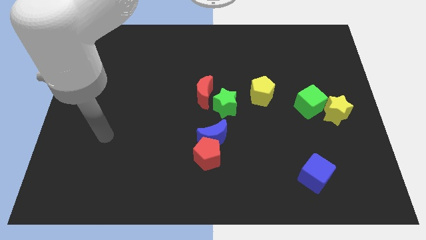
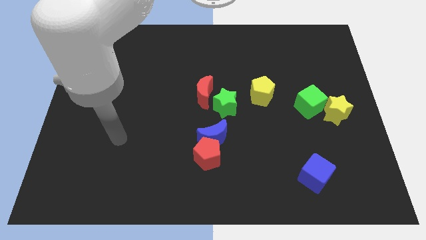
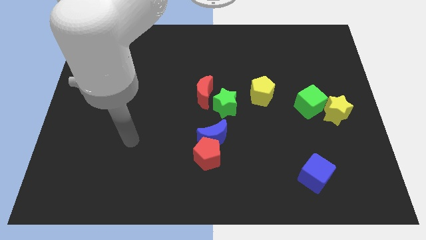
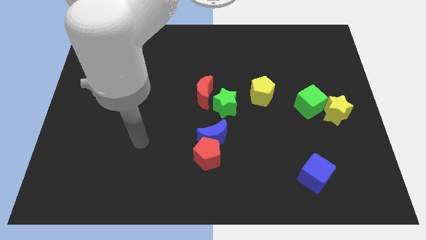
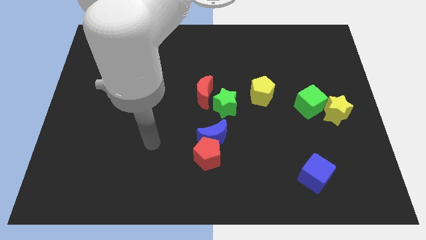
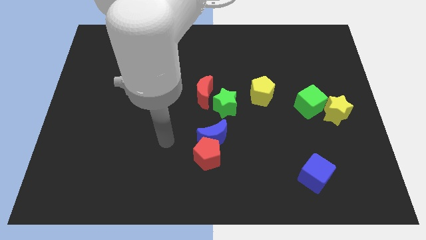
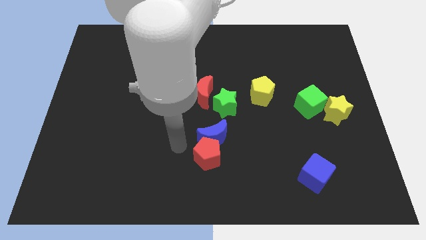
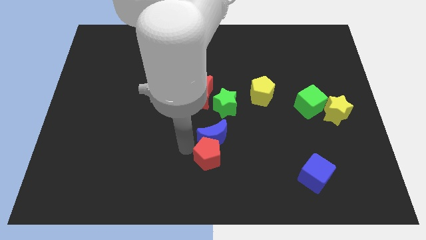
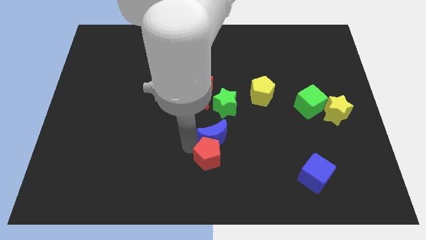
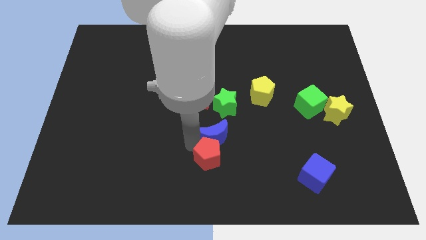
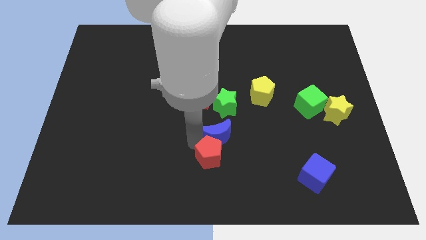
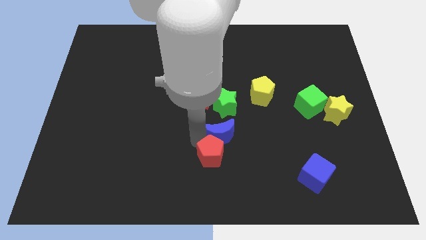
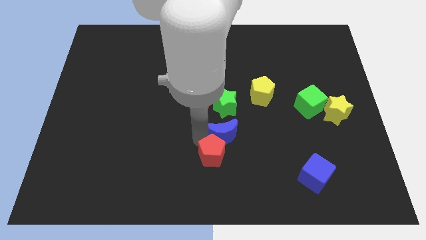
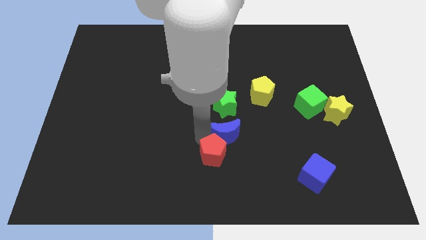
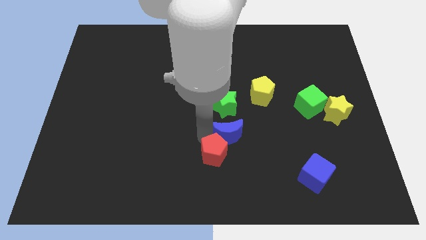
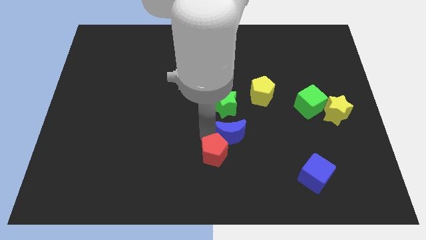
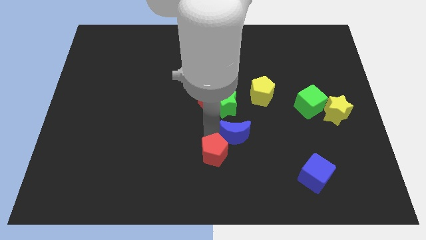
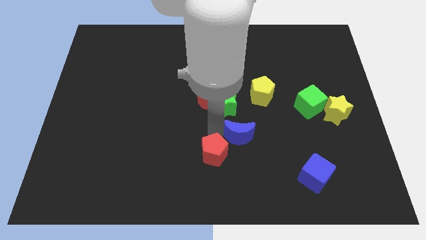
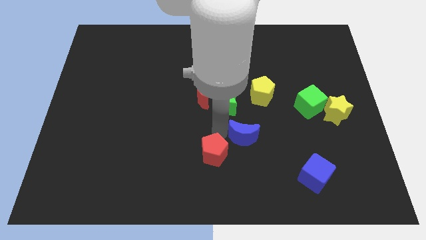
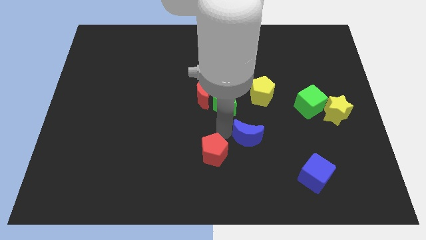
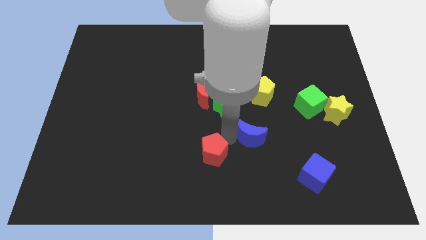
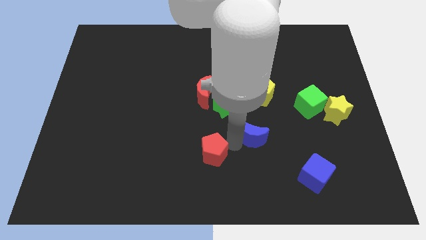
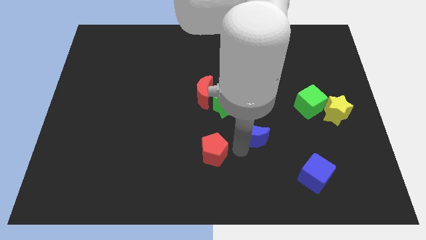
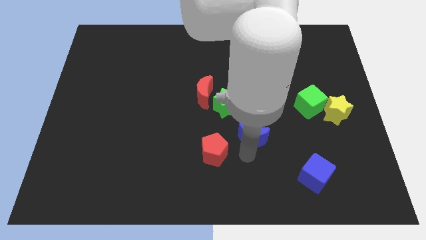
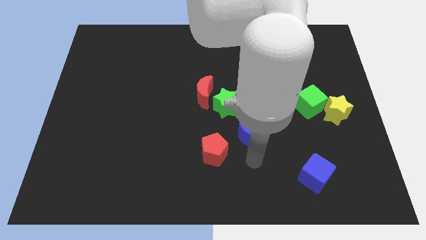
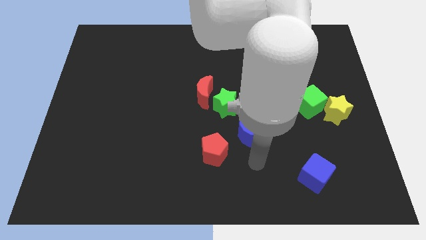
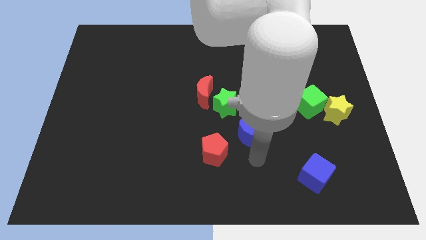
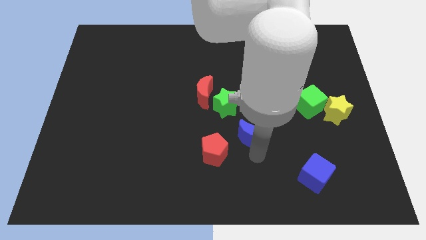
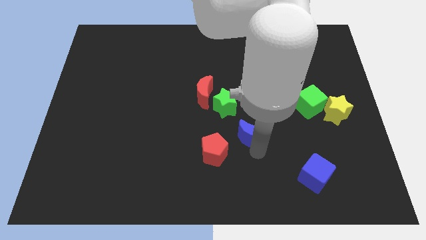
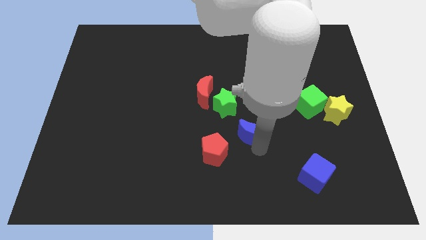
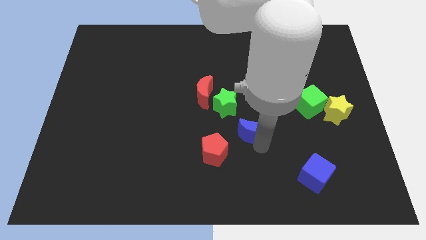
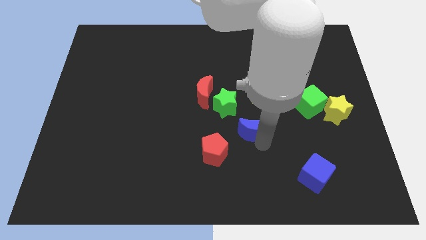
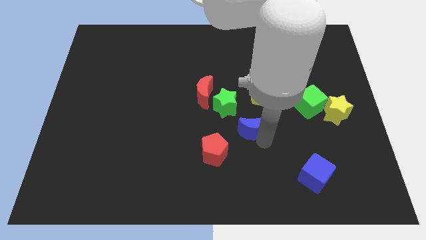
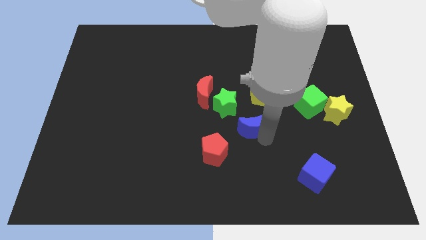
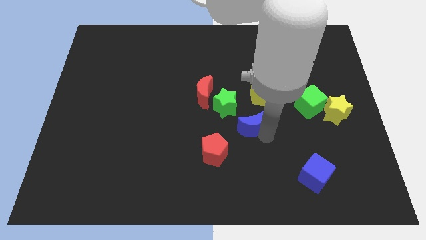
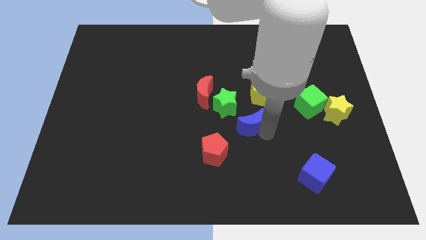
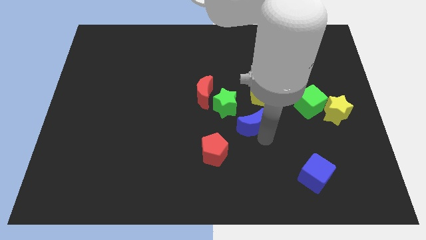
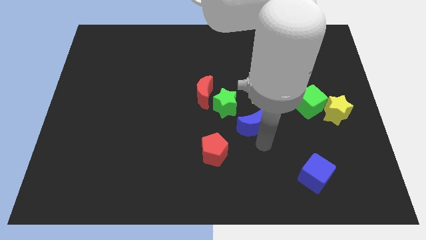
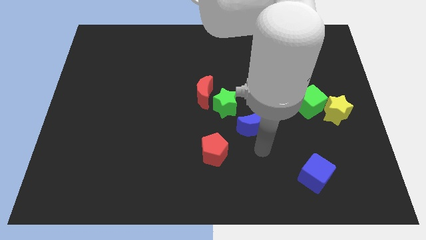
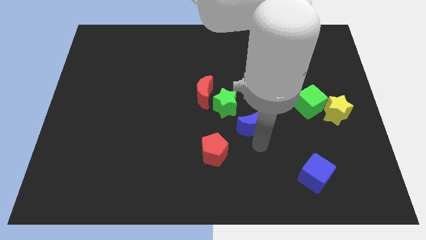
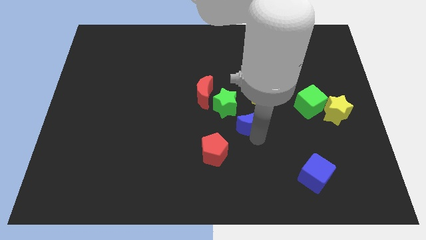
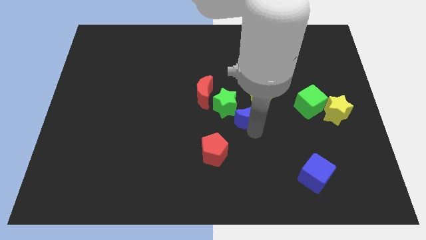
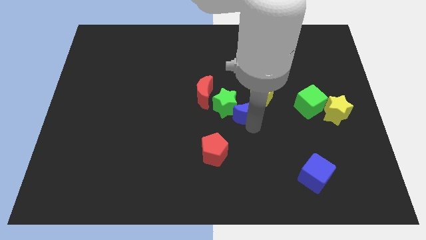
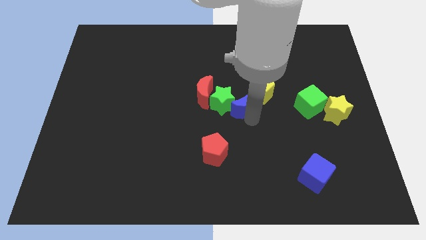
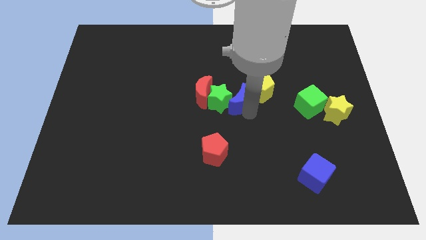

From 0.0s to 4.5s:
slide the blue moon up slightly

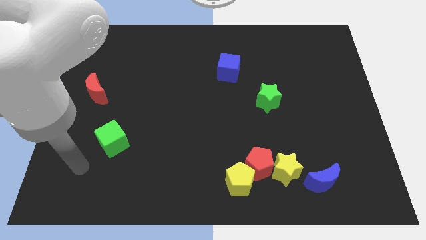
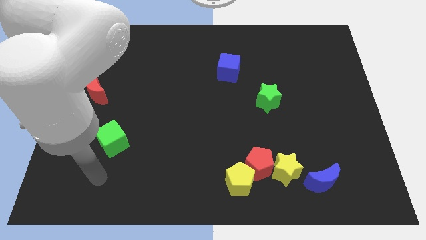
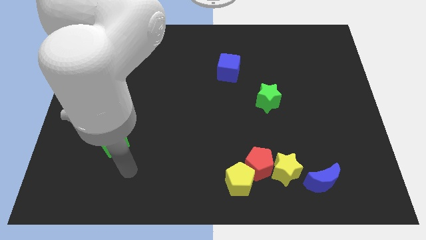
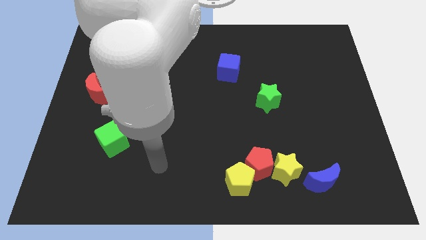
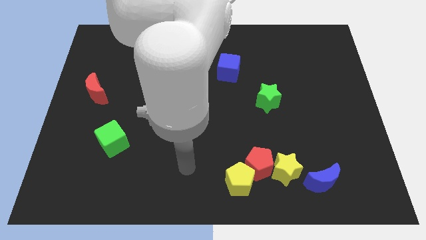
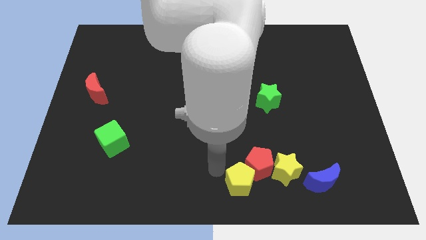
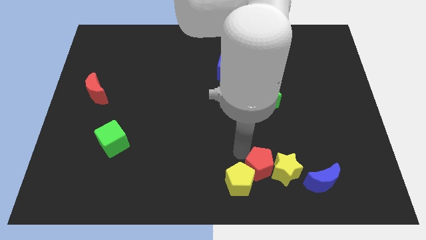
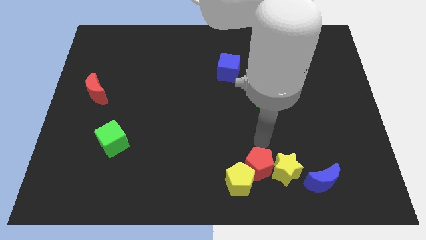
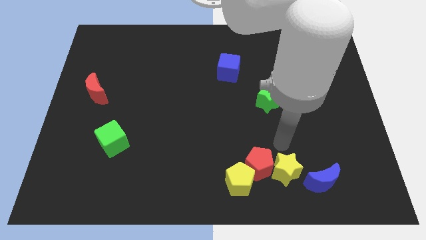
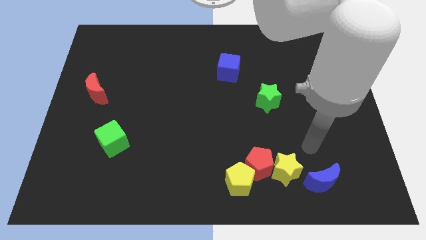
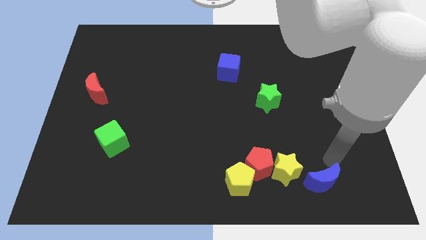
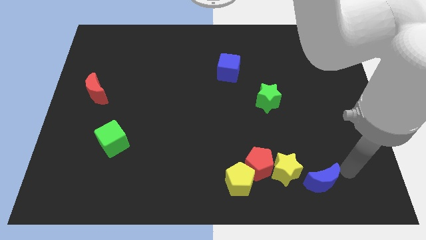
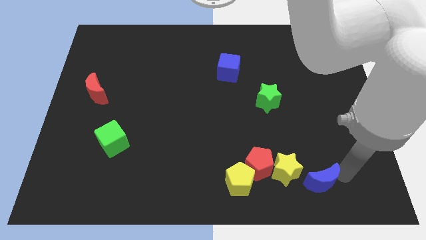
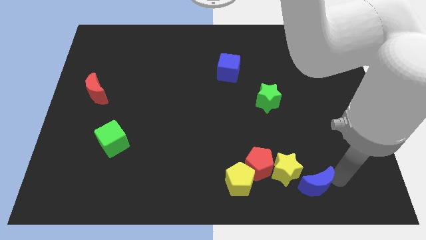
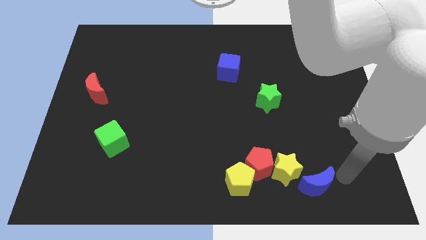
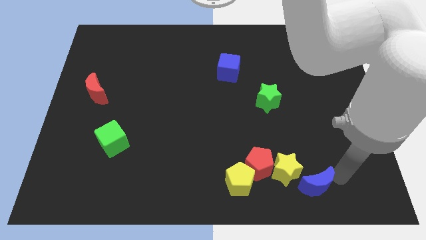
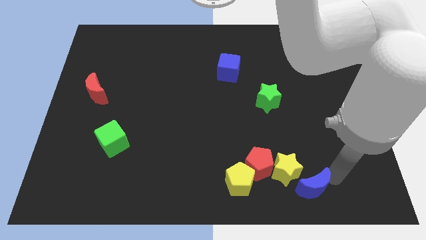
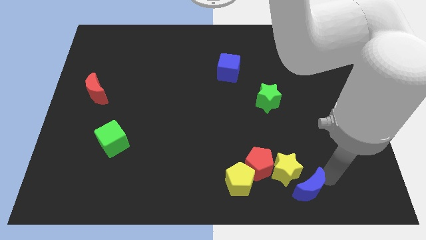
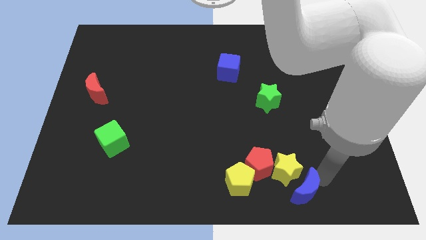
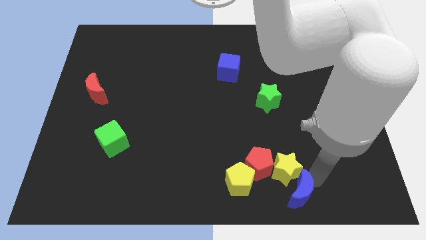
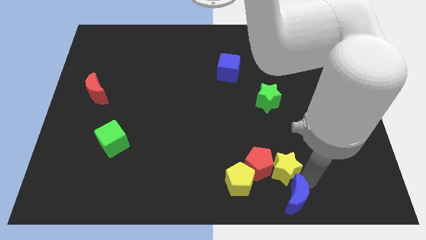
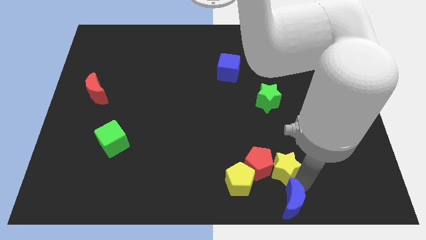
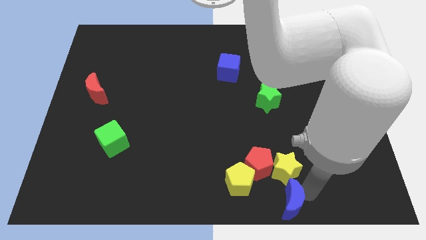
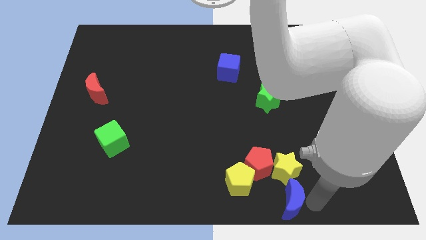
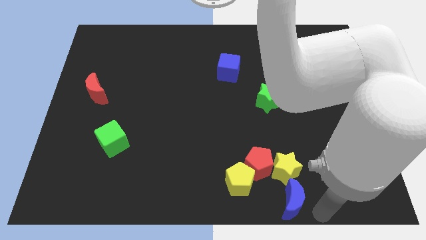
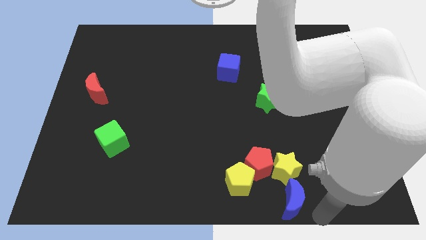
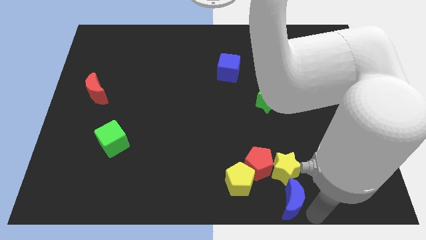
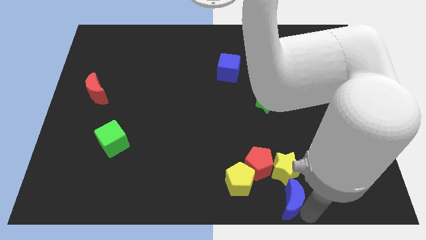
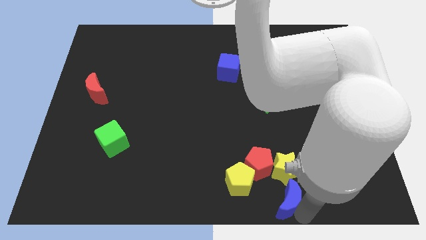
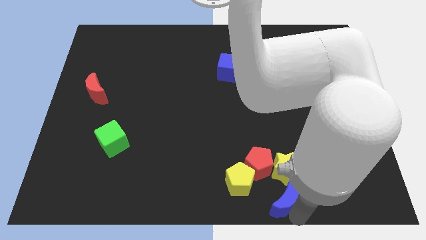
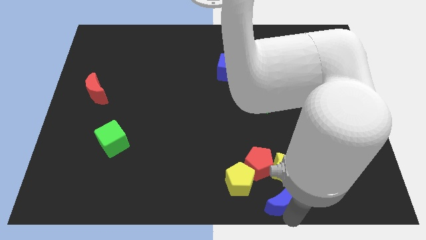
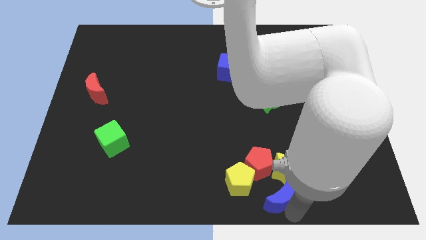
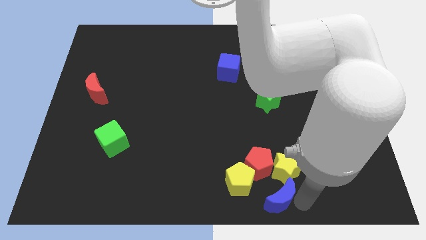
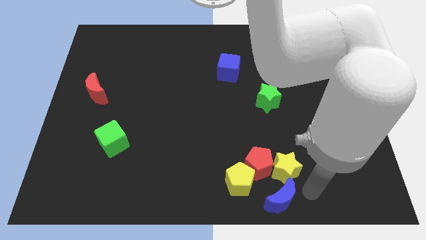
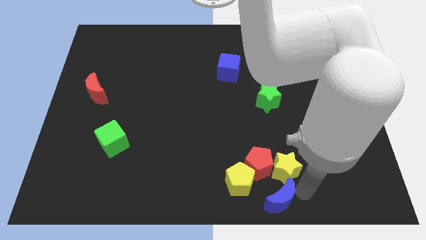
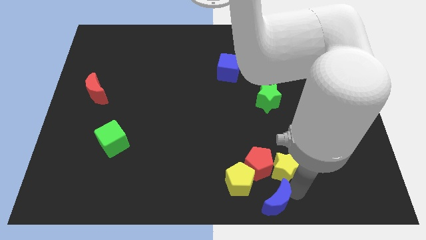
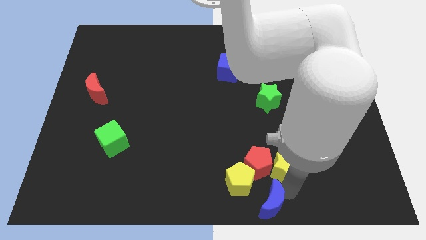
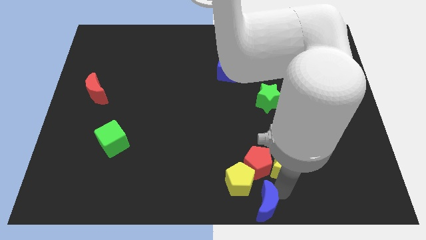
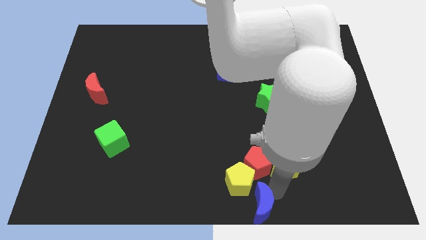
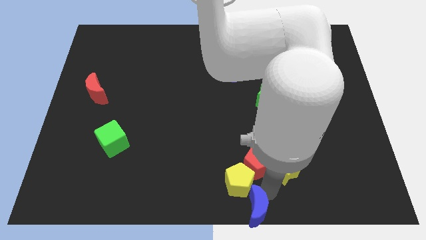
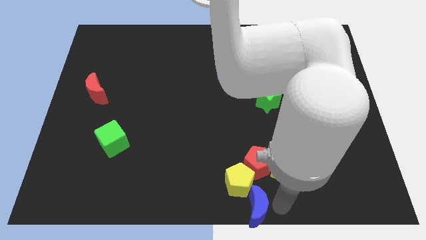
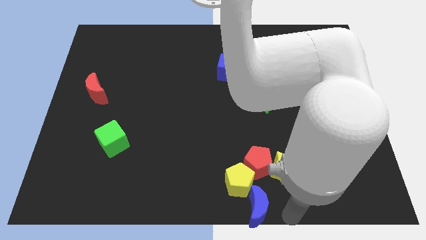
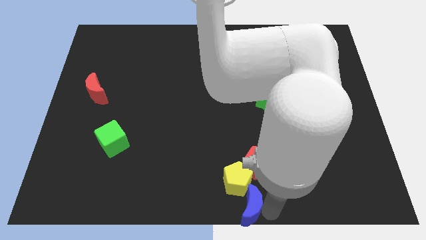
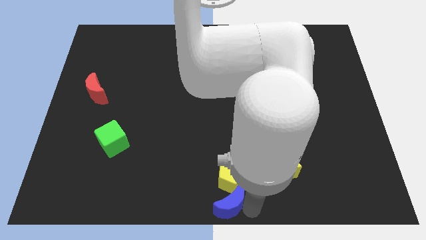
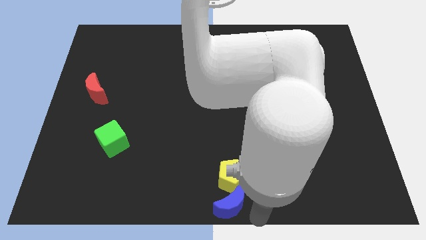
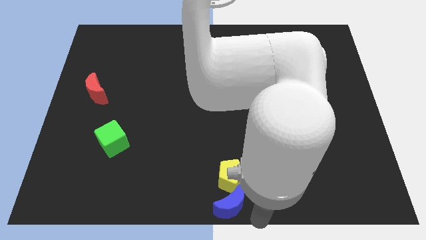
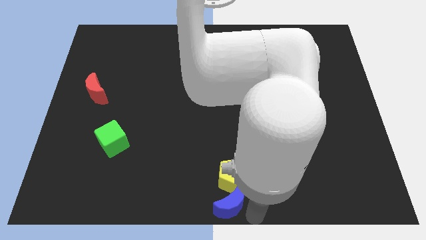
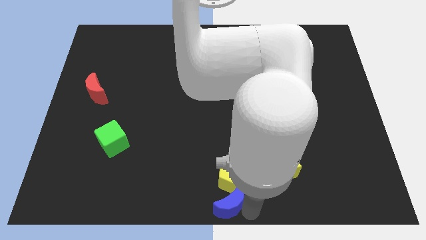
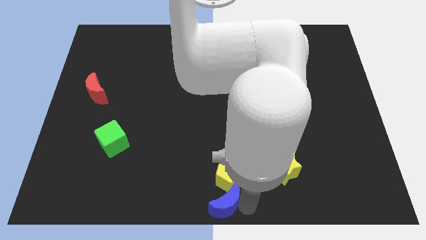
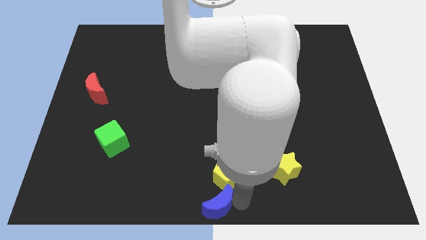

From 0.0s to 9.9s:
slide the blue moon to the left
